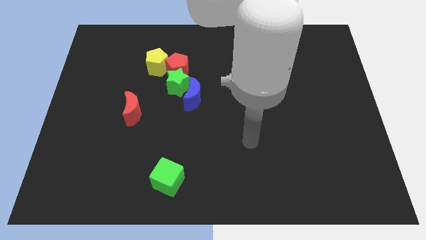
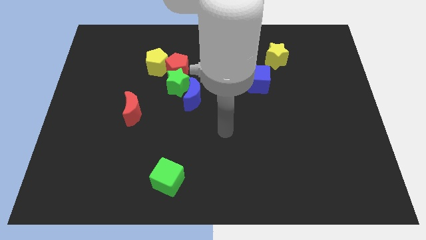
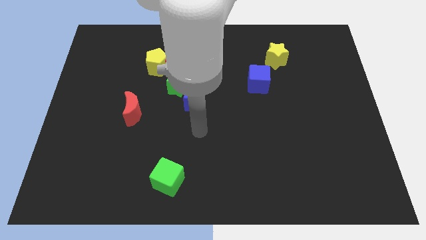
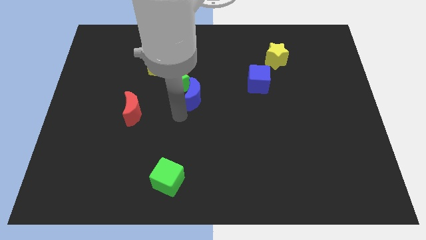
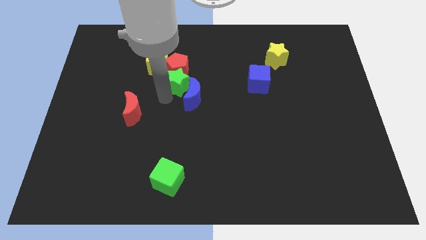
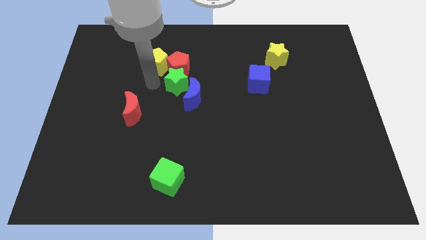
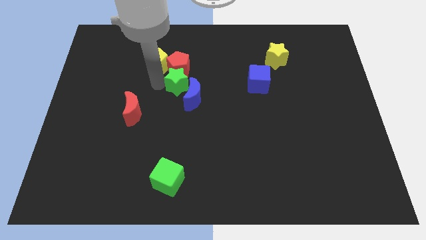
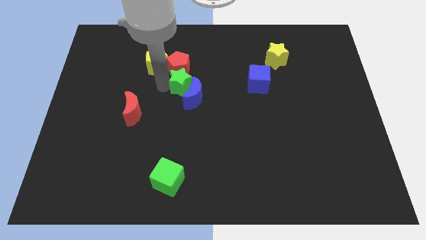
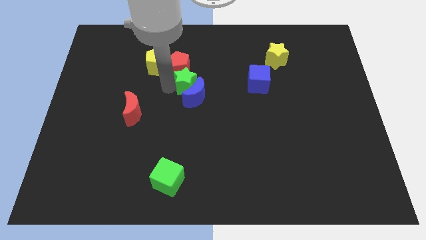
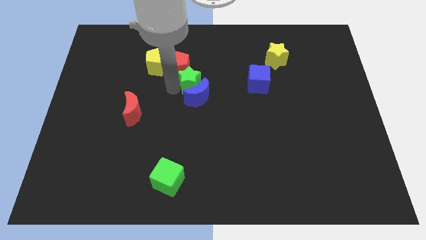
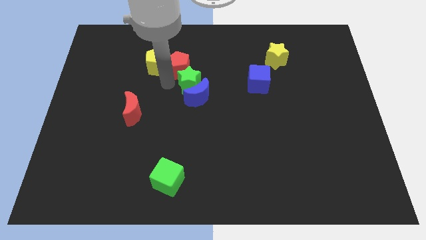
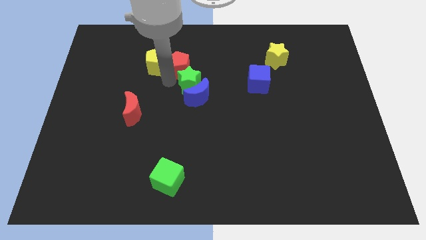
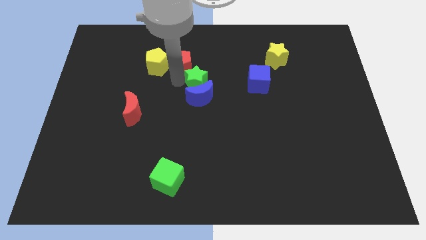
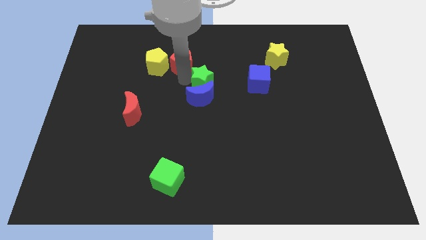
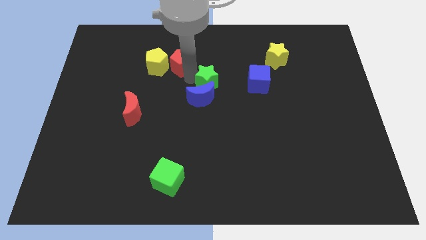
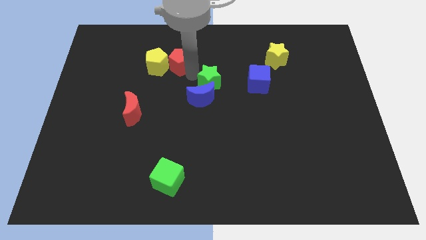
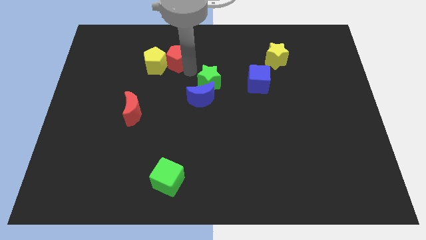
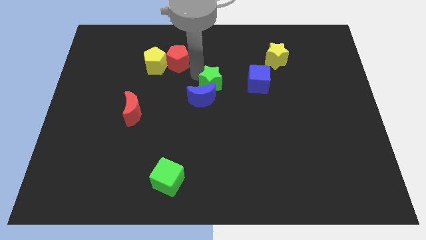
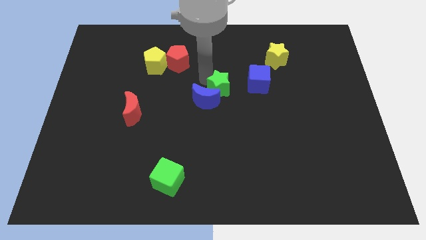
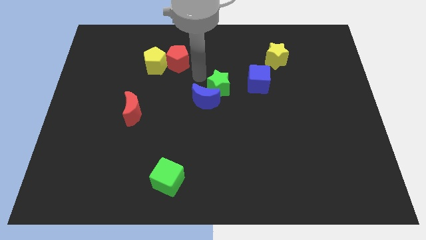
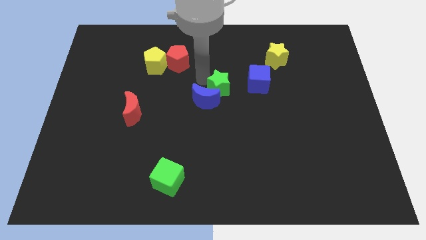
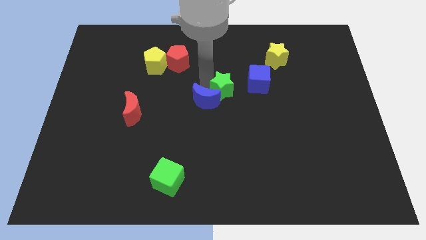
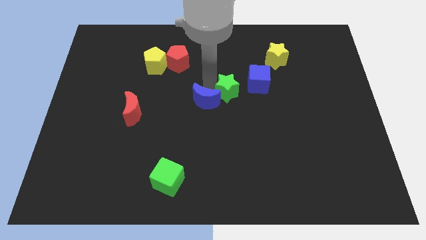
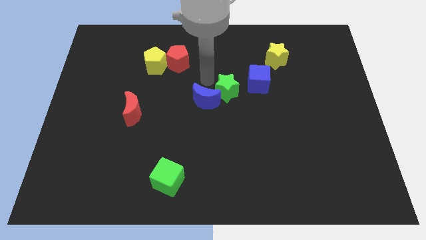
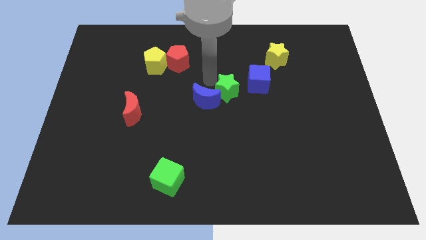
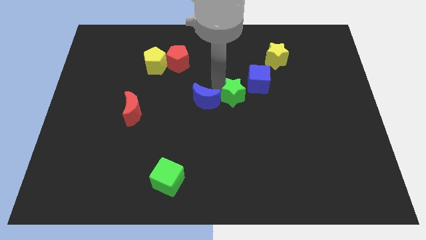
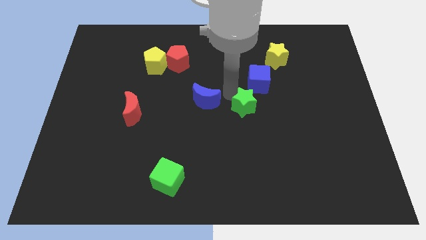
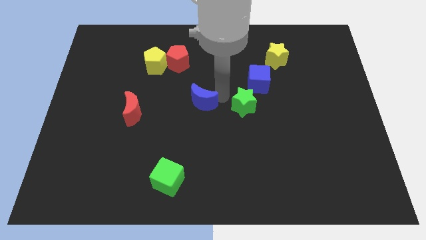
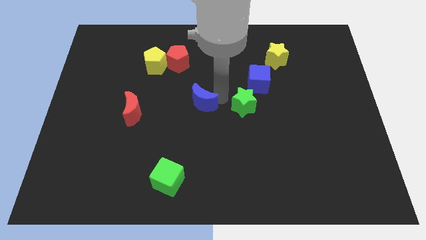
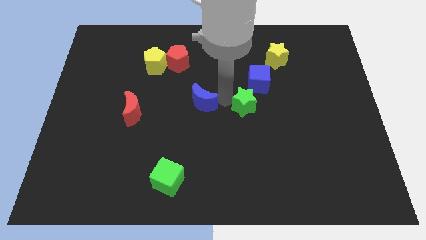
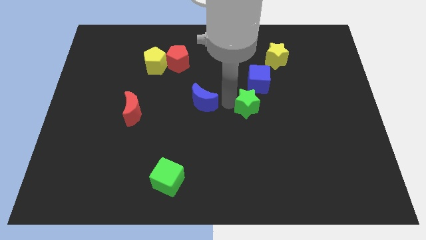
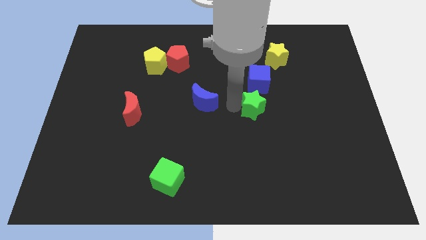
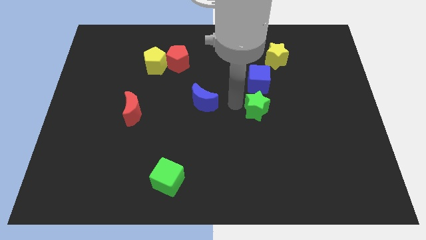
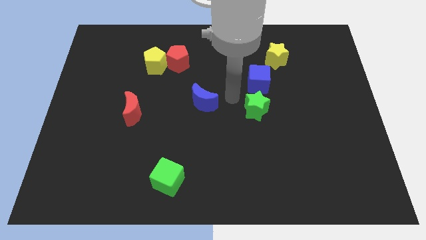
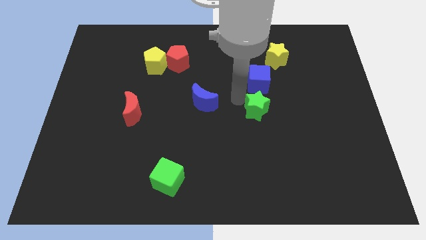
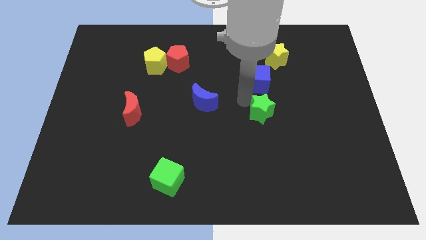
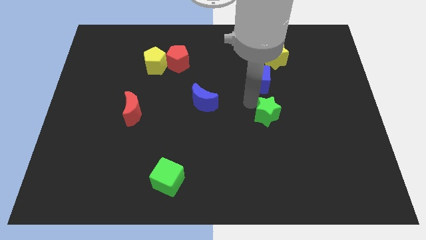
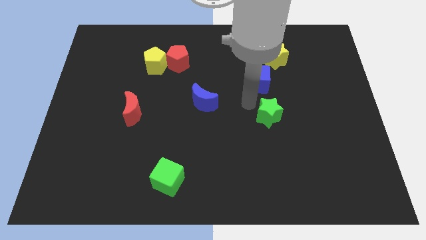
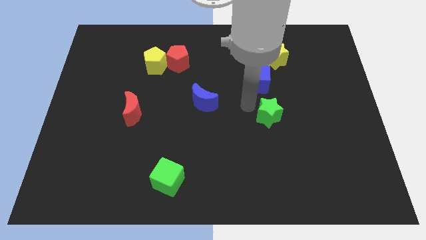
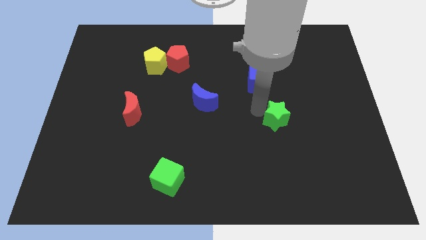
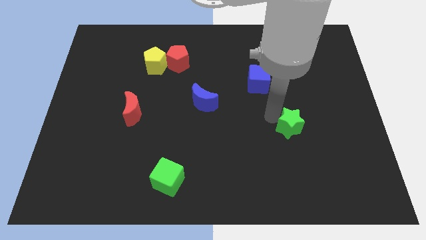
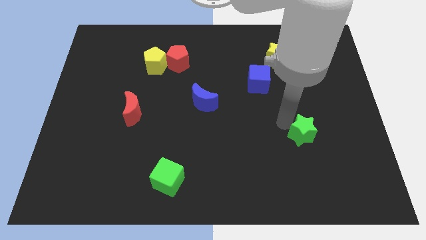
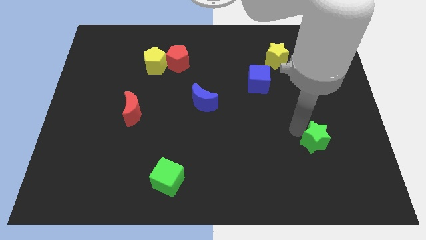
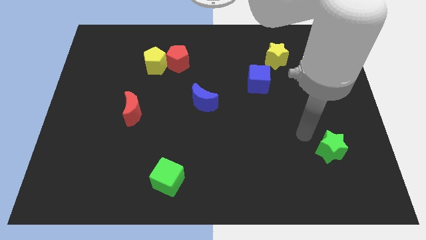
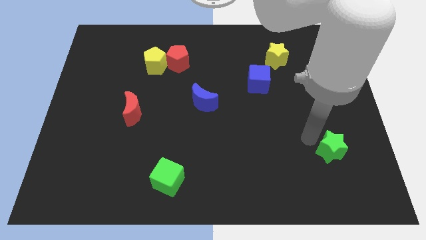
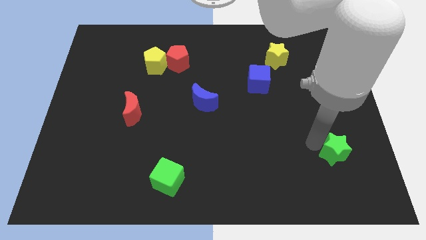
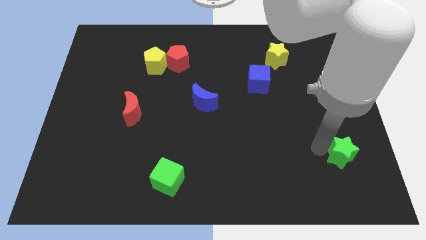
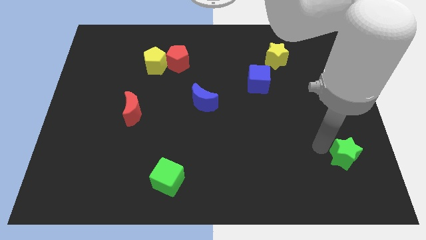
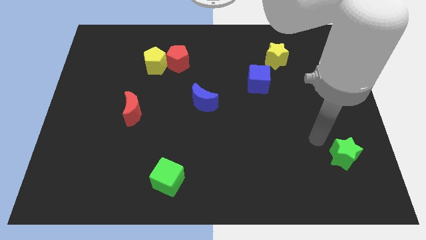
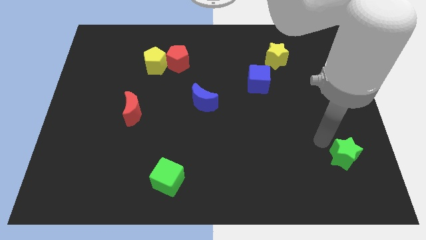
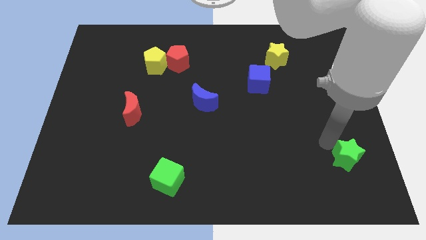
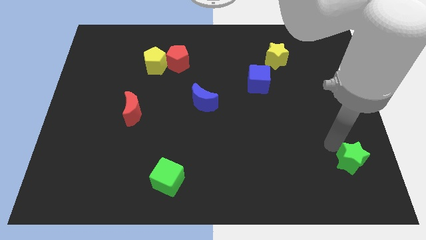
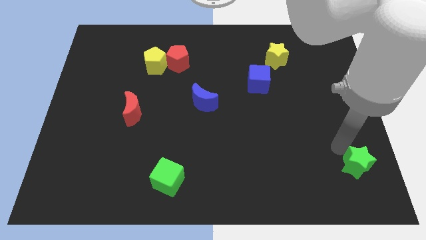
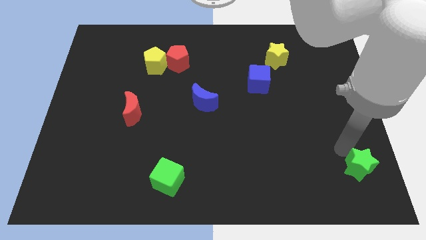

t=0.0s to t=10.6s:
move the green star to the bottom right corner

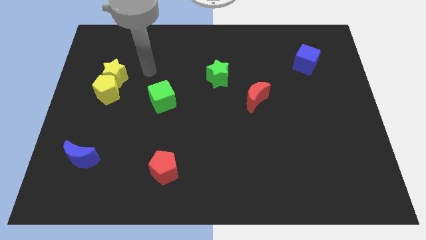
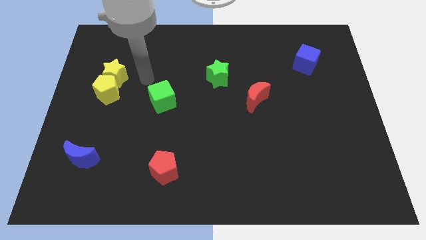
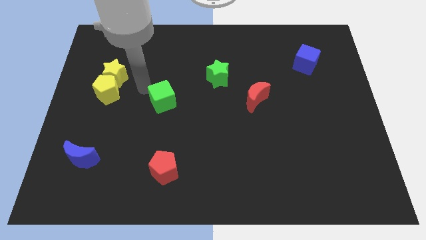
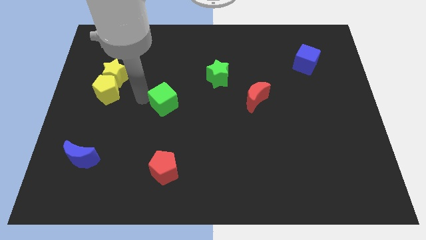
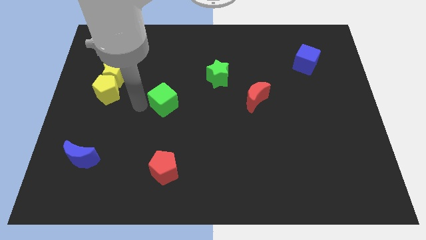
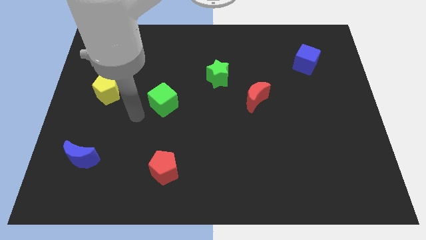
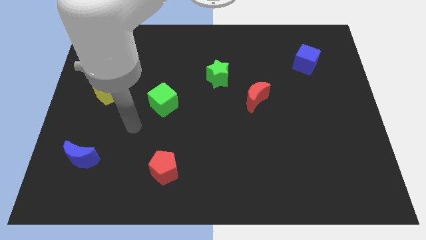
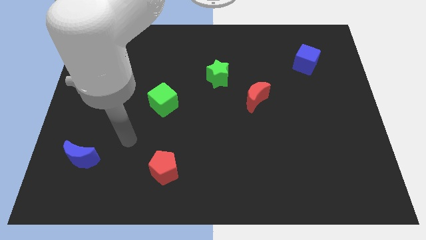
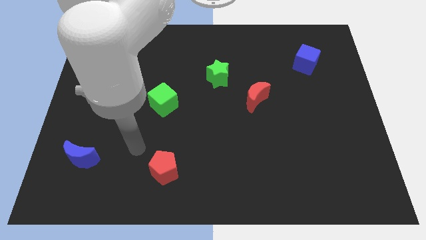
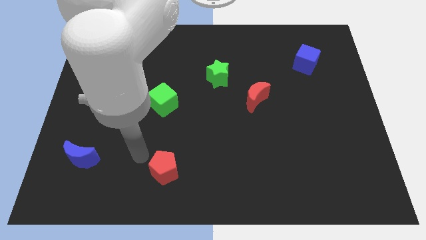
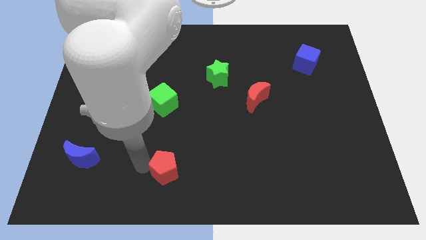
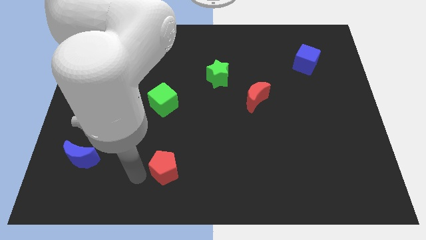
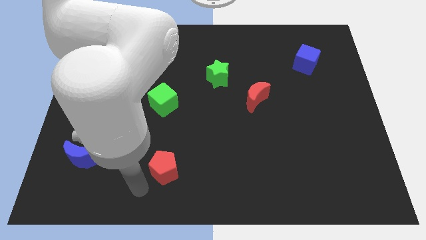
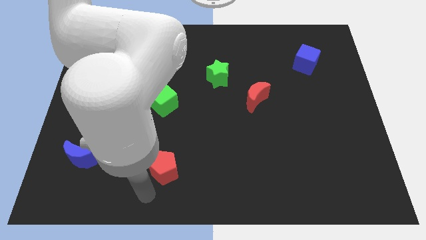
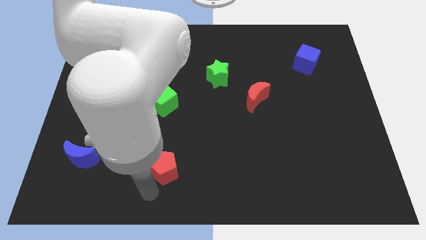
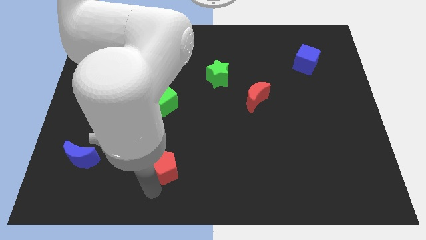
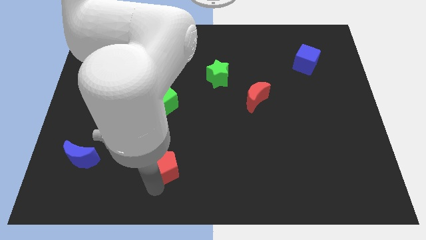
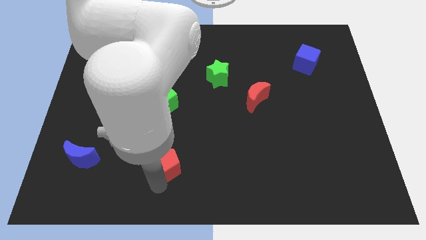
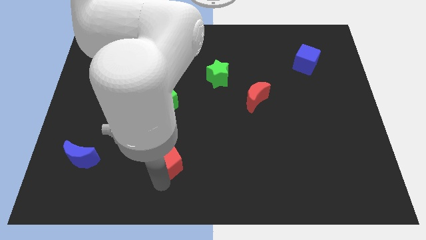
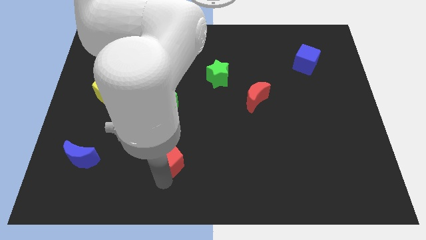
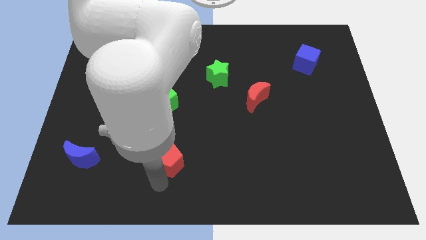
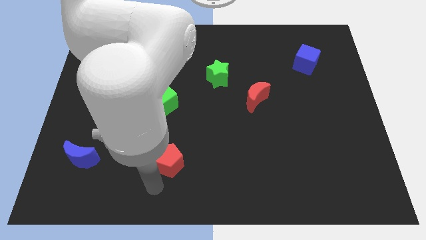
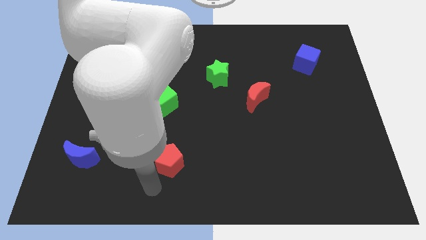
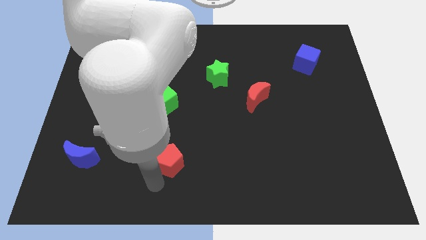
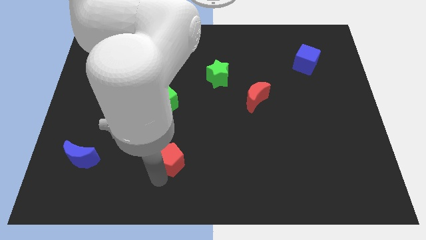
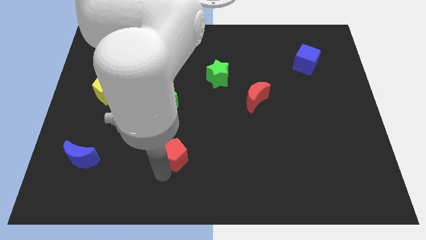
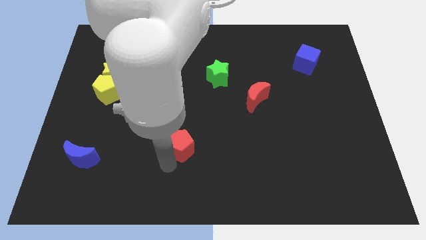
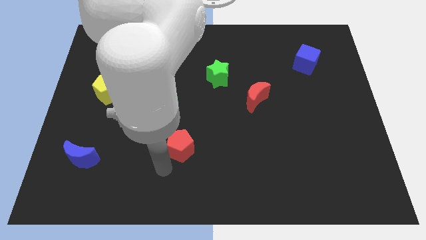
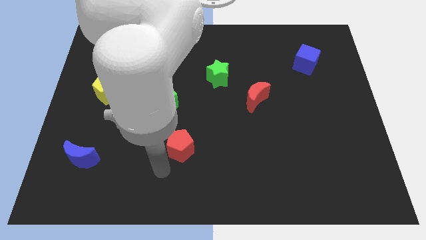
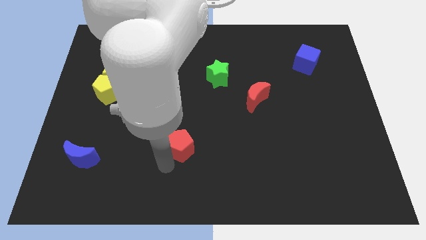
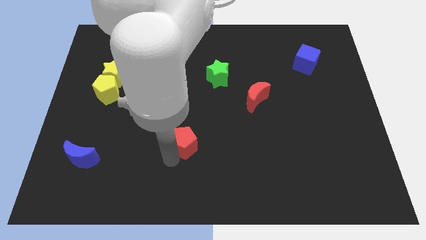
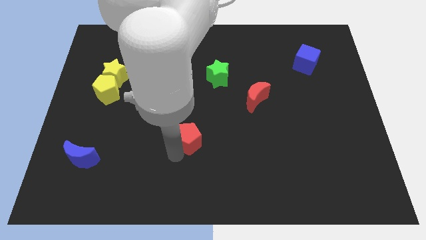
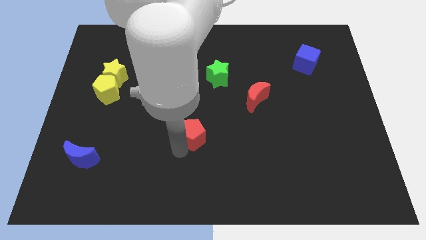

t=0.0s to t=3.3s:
move the red pentagon to the middle of the board
